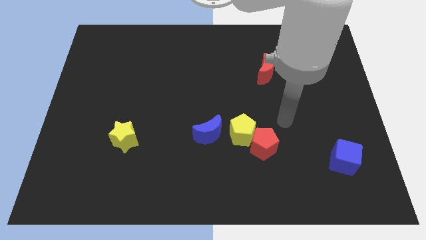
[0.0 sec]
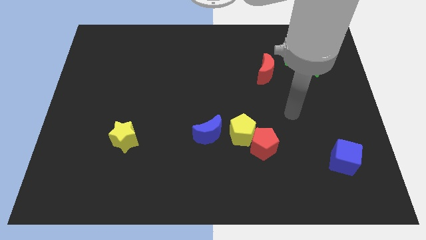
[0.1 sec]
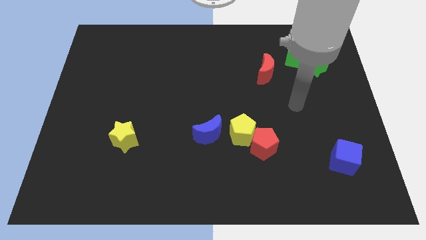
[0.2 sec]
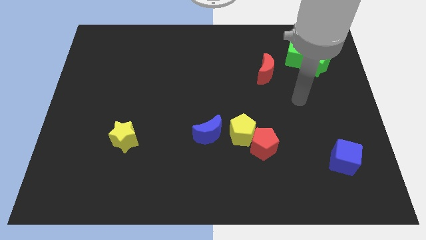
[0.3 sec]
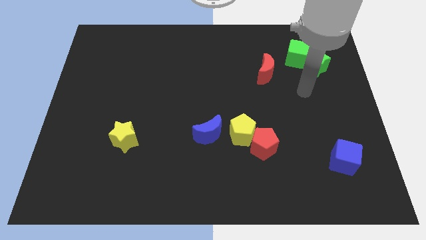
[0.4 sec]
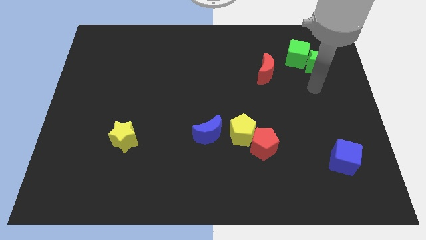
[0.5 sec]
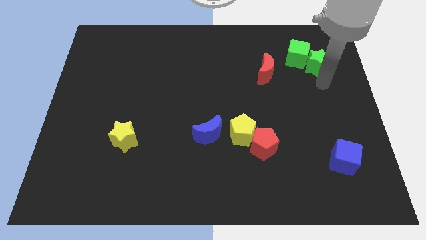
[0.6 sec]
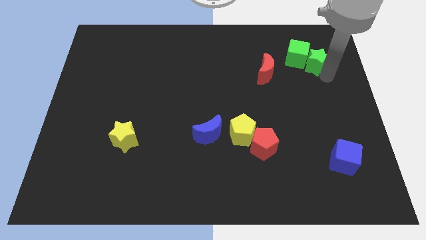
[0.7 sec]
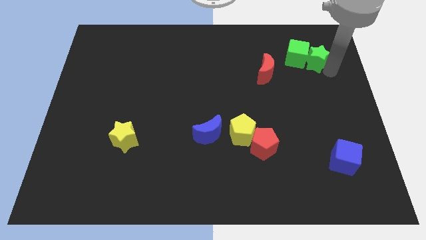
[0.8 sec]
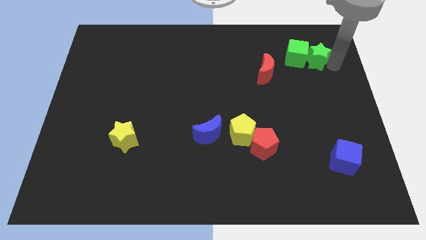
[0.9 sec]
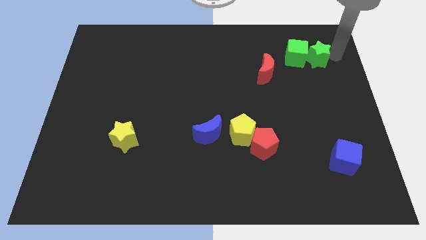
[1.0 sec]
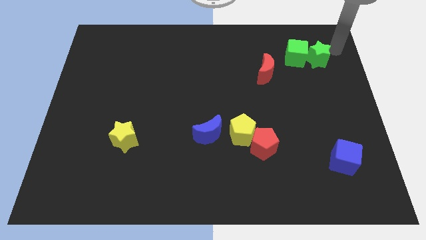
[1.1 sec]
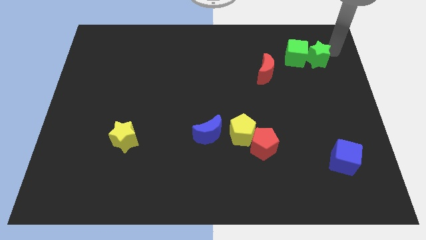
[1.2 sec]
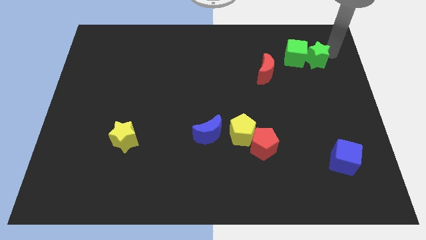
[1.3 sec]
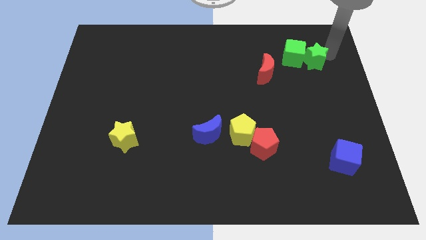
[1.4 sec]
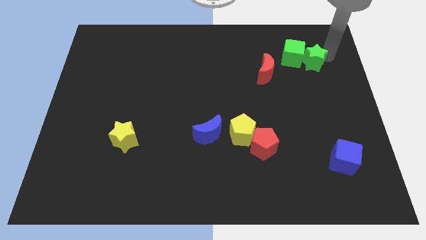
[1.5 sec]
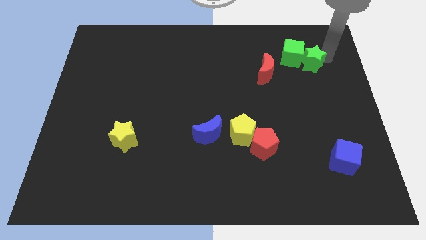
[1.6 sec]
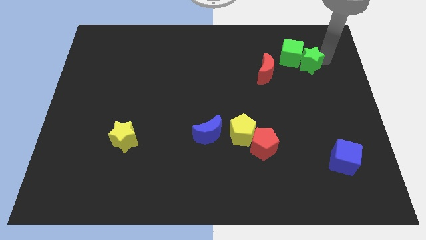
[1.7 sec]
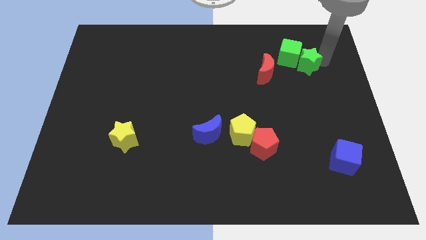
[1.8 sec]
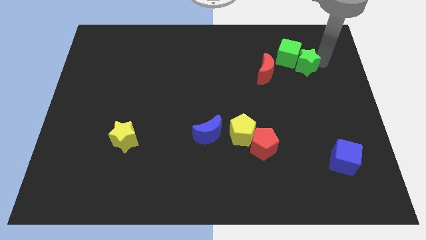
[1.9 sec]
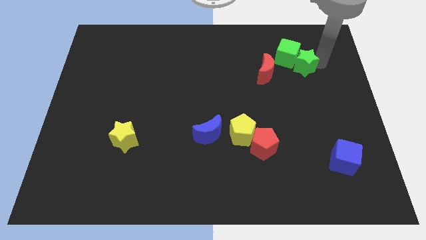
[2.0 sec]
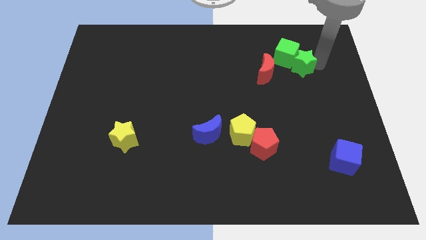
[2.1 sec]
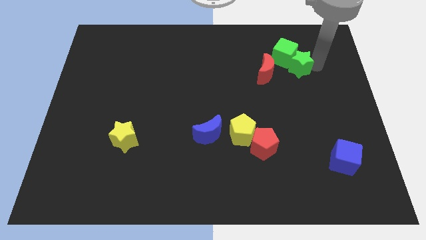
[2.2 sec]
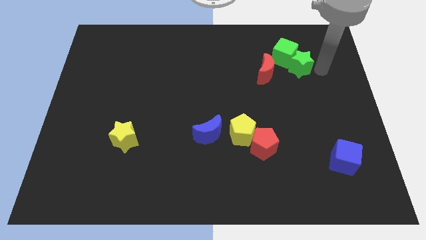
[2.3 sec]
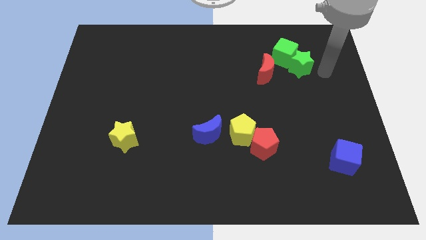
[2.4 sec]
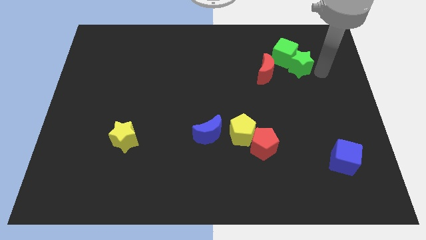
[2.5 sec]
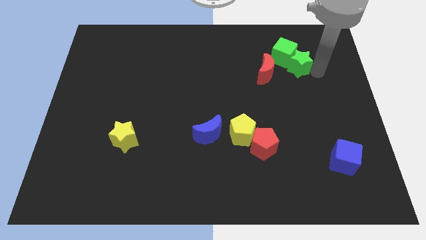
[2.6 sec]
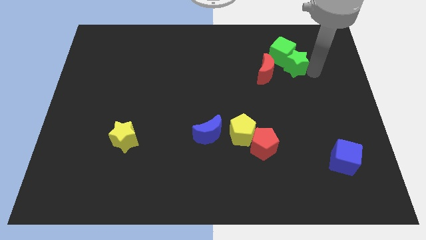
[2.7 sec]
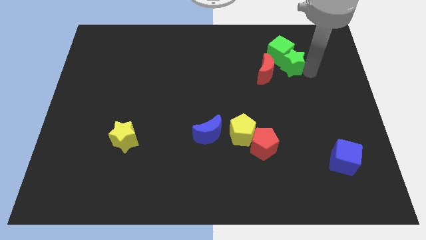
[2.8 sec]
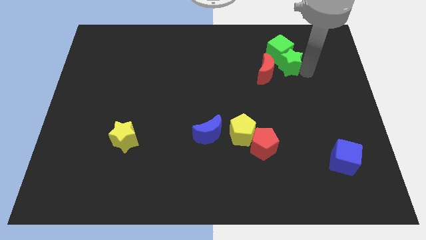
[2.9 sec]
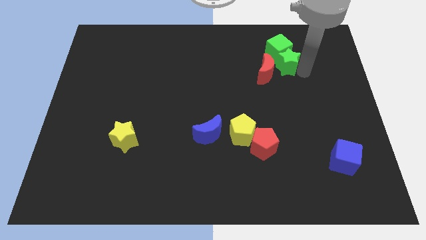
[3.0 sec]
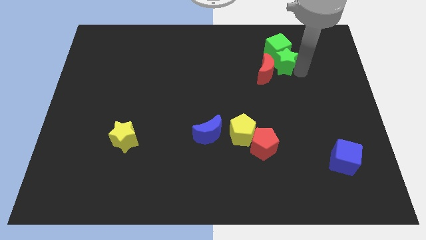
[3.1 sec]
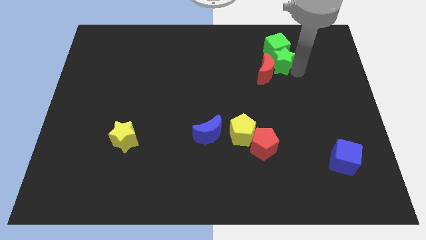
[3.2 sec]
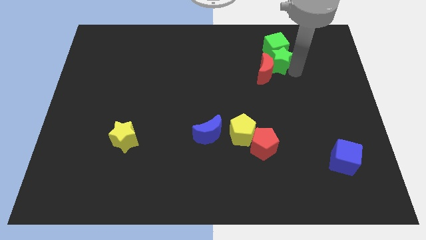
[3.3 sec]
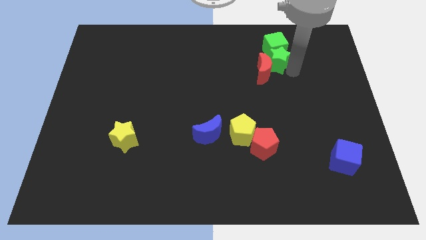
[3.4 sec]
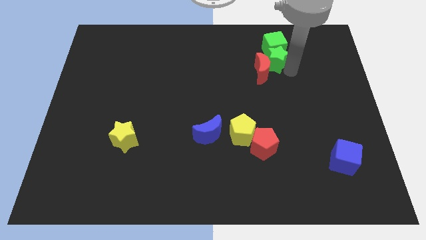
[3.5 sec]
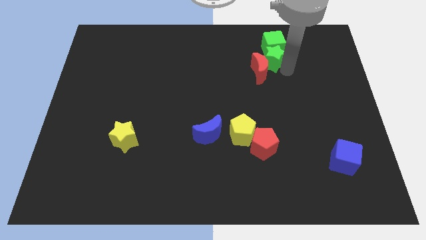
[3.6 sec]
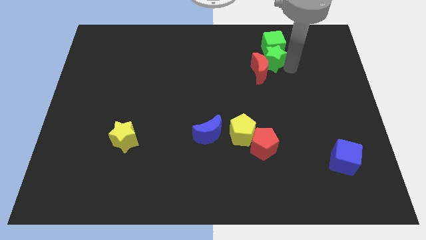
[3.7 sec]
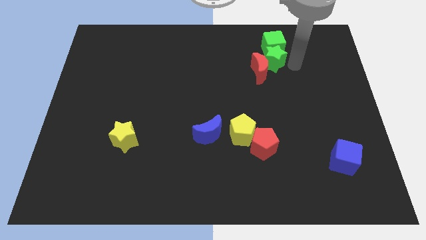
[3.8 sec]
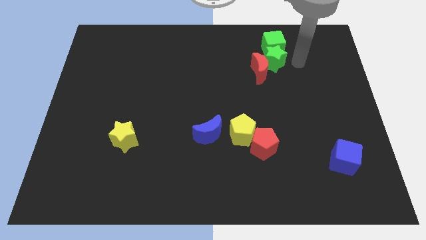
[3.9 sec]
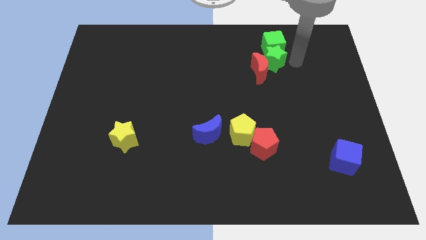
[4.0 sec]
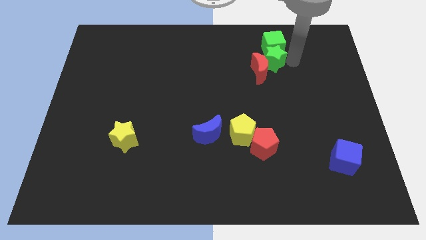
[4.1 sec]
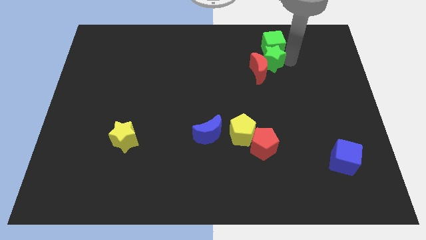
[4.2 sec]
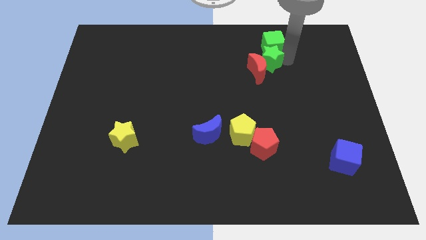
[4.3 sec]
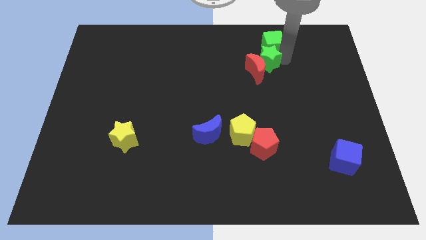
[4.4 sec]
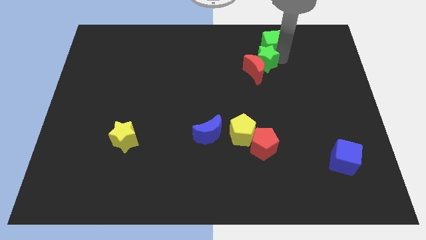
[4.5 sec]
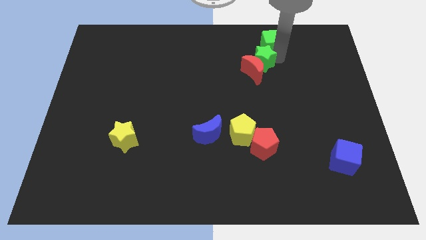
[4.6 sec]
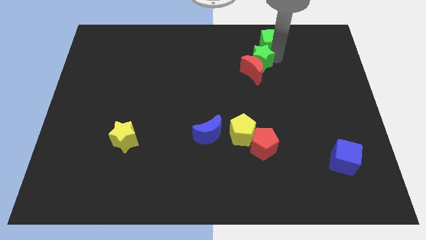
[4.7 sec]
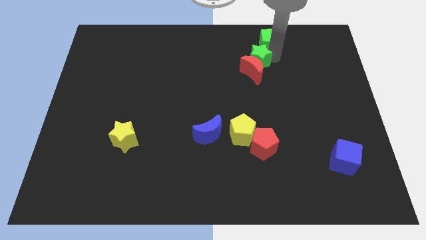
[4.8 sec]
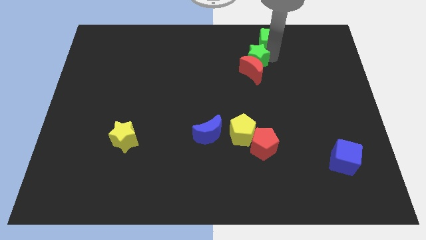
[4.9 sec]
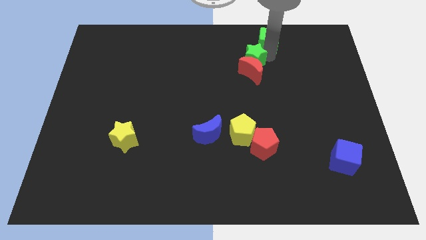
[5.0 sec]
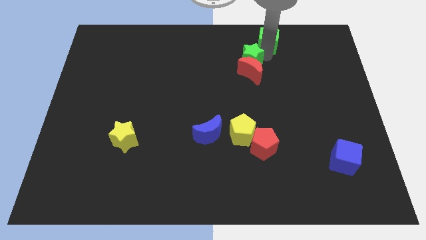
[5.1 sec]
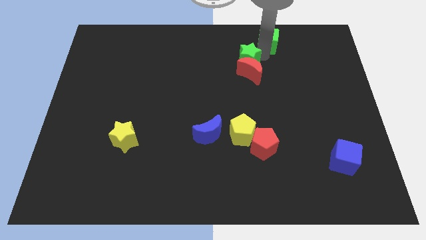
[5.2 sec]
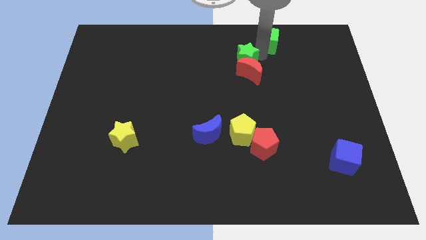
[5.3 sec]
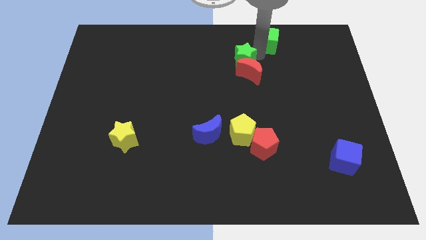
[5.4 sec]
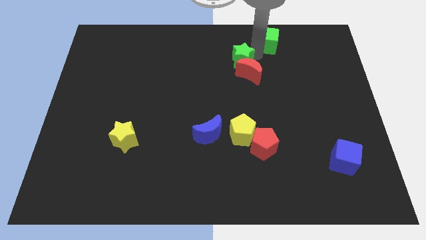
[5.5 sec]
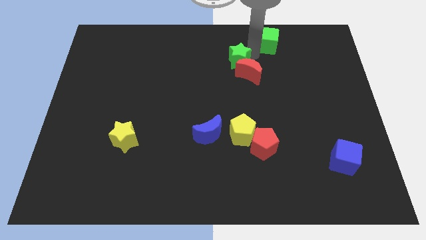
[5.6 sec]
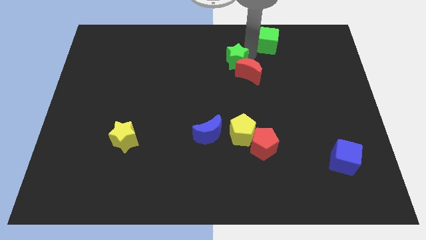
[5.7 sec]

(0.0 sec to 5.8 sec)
push the green star left

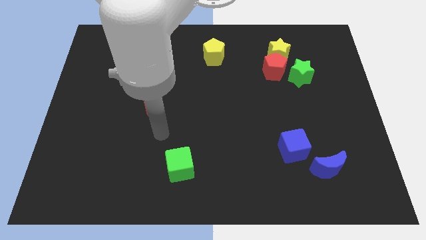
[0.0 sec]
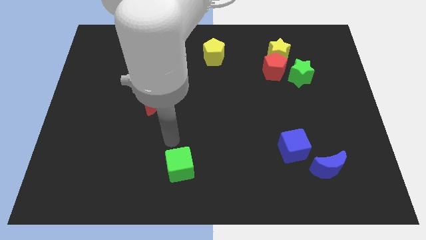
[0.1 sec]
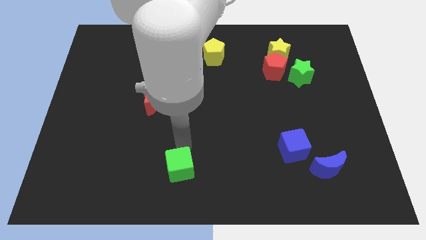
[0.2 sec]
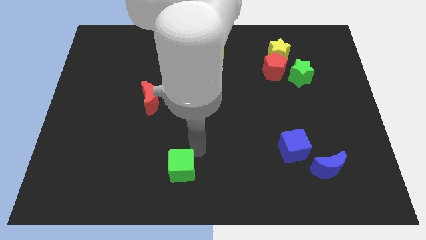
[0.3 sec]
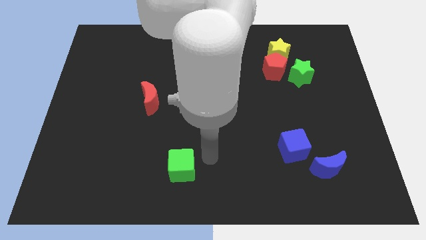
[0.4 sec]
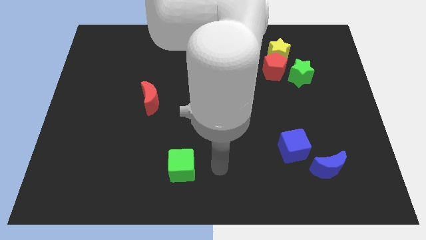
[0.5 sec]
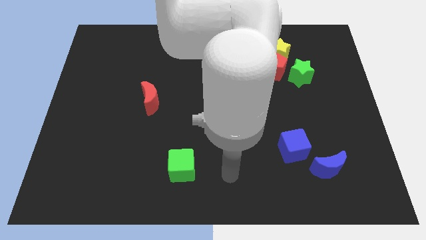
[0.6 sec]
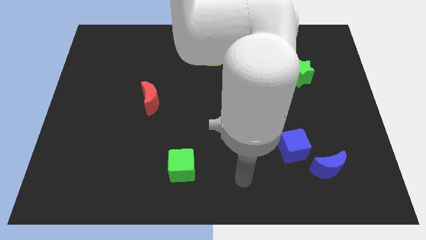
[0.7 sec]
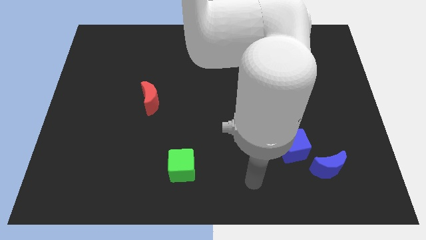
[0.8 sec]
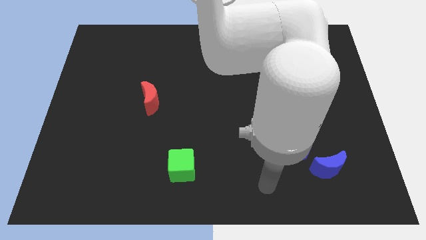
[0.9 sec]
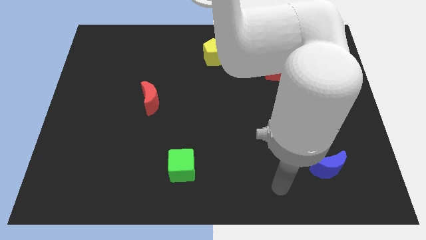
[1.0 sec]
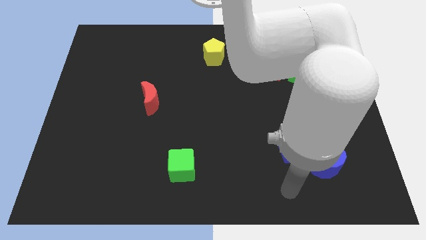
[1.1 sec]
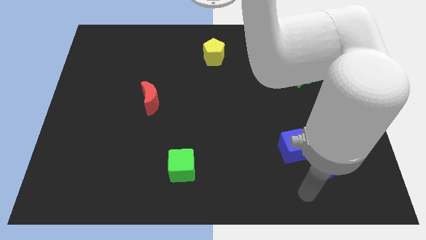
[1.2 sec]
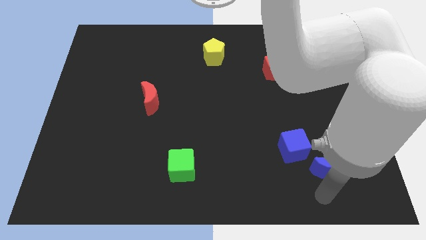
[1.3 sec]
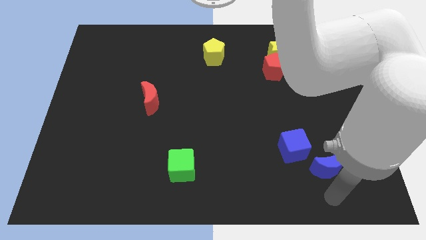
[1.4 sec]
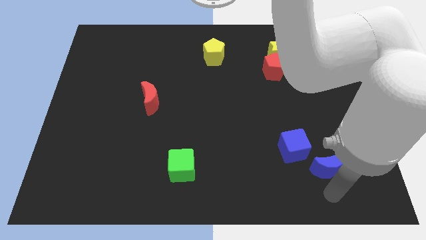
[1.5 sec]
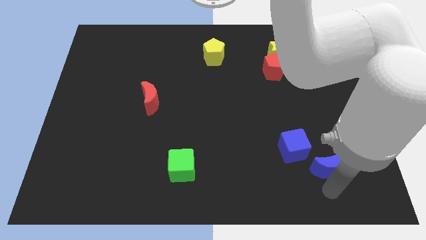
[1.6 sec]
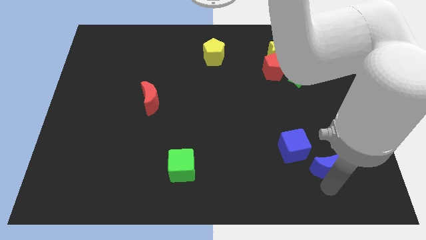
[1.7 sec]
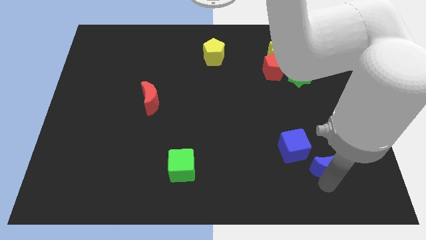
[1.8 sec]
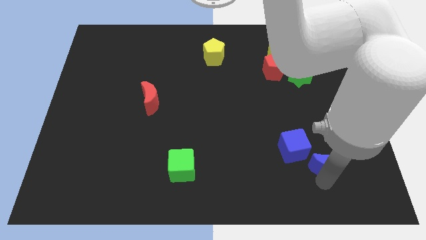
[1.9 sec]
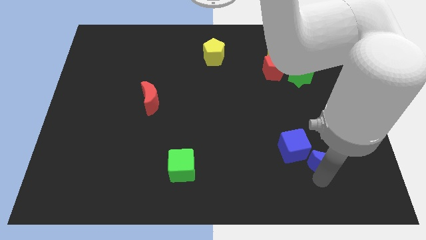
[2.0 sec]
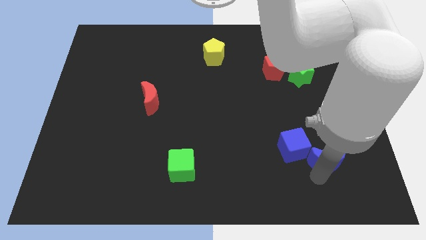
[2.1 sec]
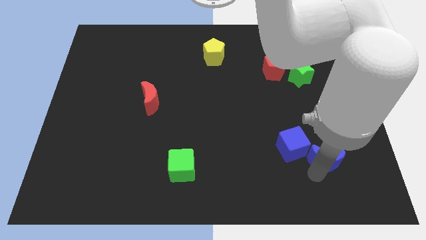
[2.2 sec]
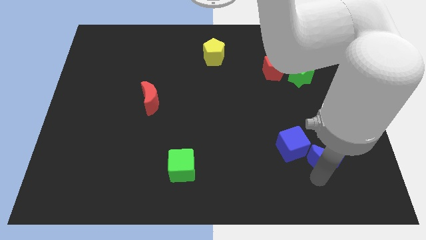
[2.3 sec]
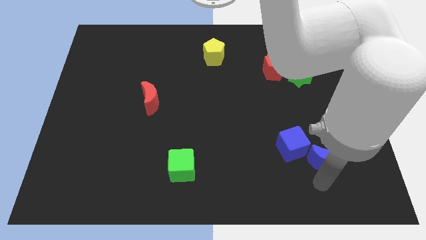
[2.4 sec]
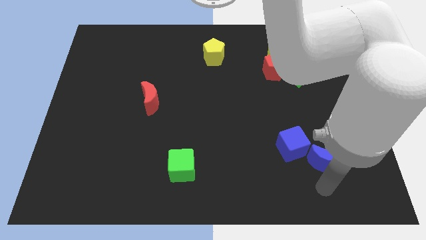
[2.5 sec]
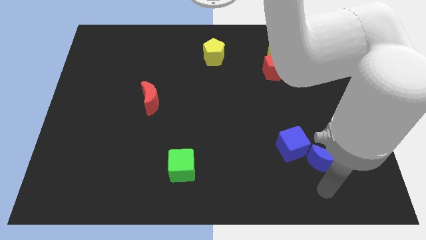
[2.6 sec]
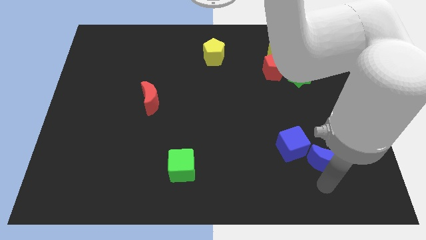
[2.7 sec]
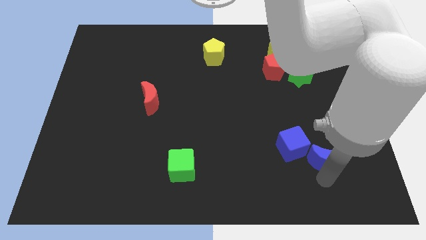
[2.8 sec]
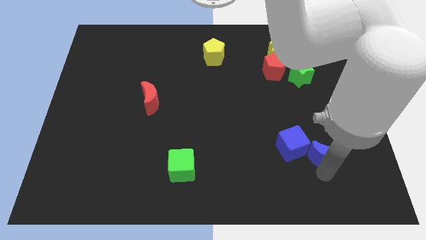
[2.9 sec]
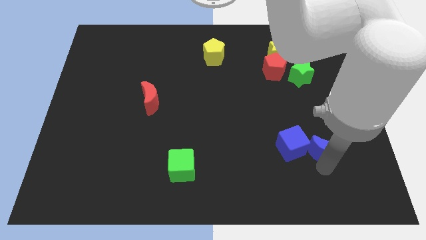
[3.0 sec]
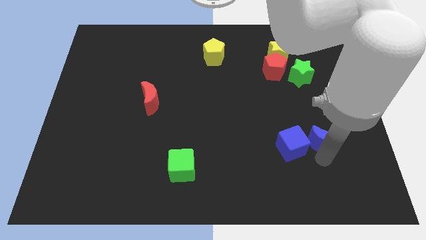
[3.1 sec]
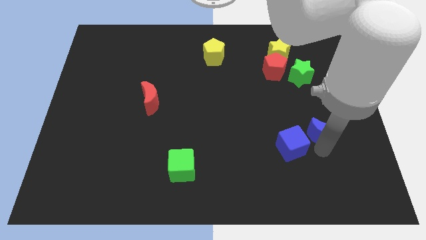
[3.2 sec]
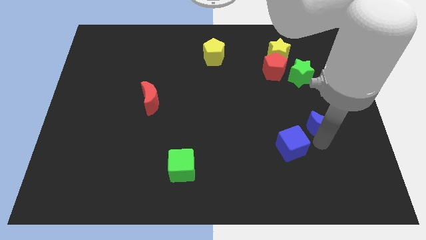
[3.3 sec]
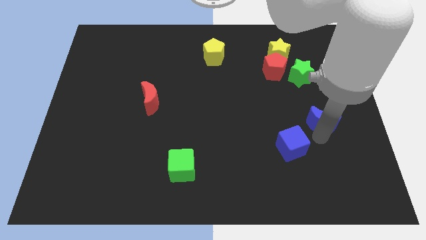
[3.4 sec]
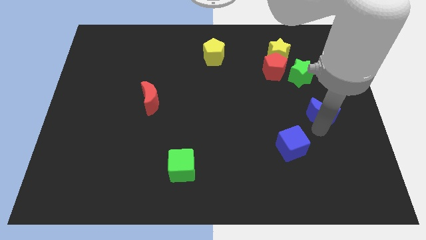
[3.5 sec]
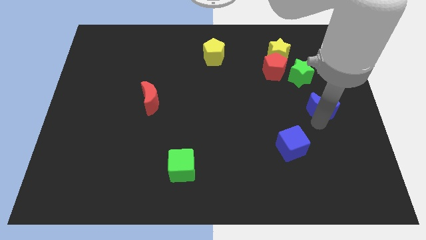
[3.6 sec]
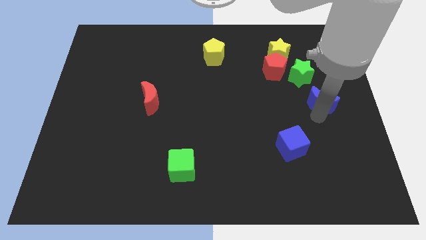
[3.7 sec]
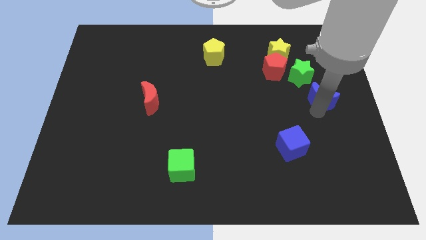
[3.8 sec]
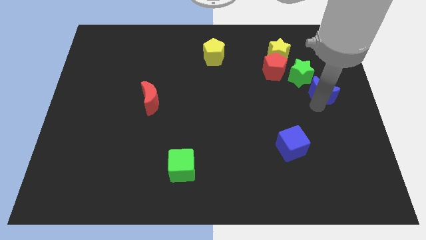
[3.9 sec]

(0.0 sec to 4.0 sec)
push the blue moon upwards
